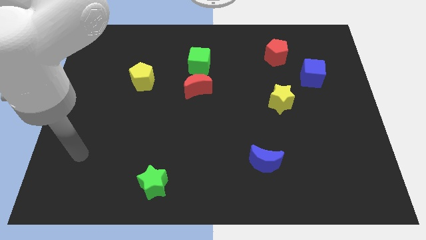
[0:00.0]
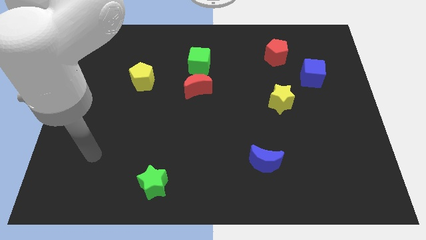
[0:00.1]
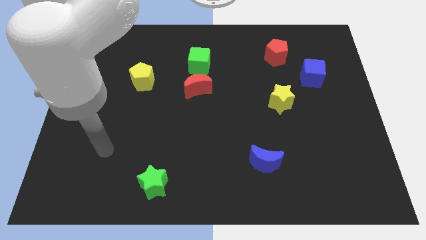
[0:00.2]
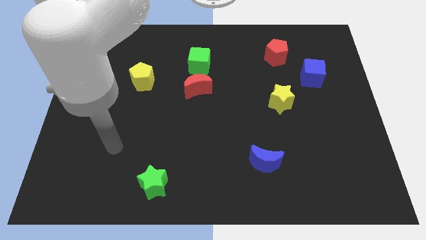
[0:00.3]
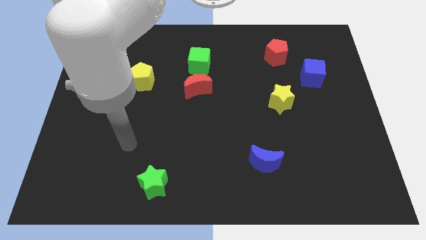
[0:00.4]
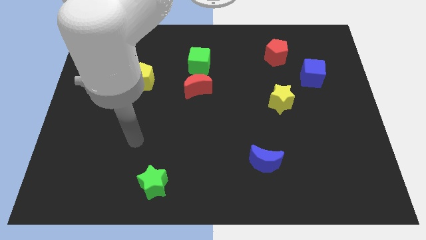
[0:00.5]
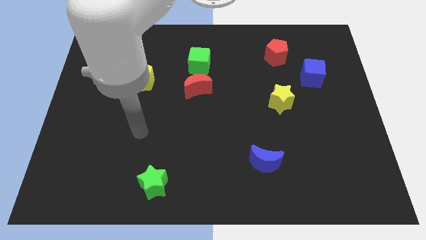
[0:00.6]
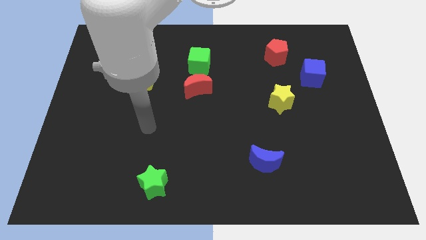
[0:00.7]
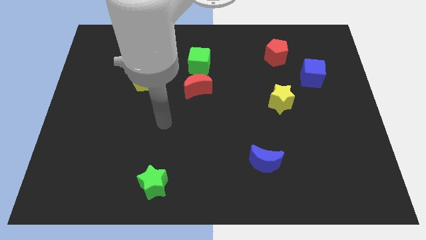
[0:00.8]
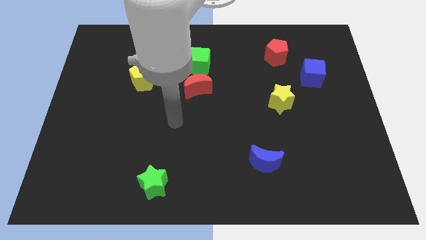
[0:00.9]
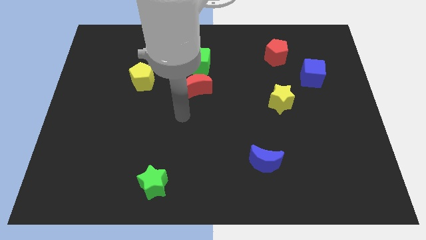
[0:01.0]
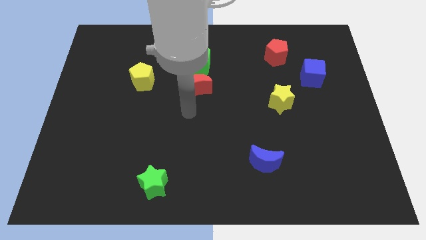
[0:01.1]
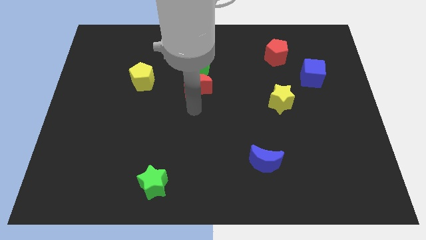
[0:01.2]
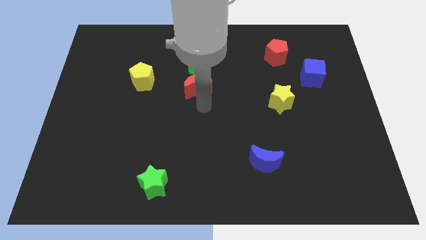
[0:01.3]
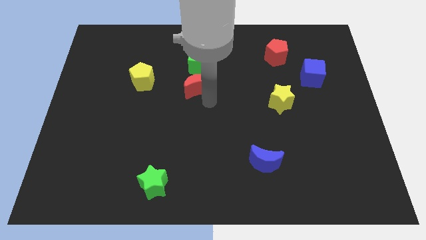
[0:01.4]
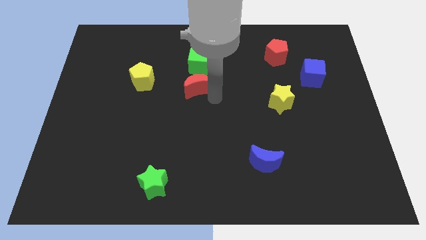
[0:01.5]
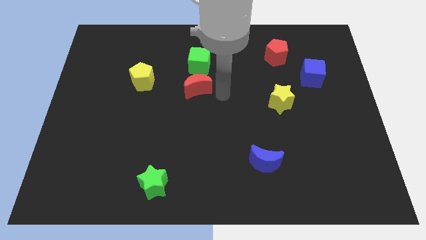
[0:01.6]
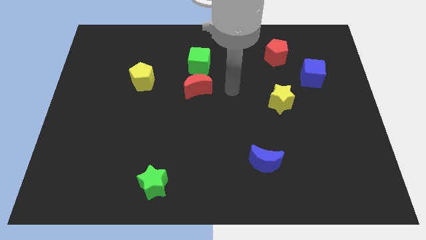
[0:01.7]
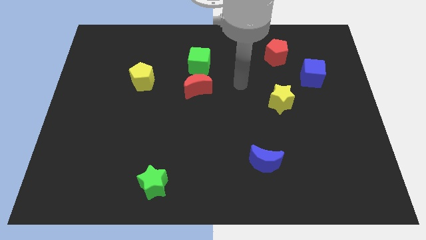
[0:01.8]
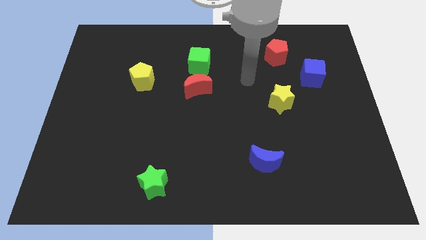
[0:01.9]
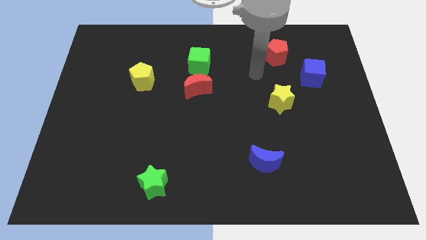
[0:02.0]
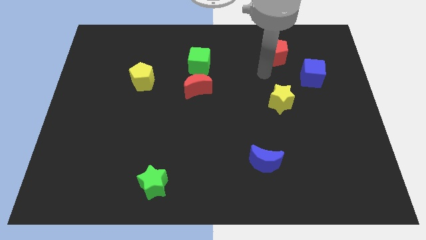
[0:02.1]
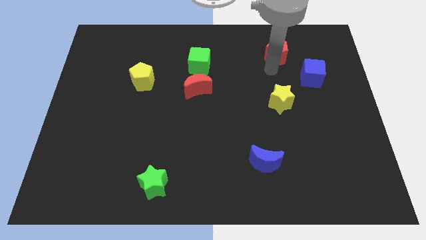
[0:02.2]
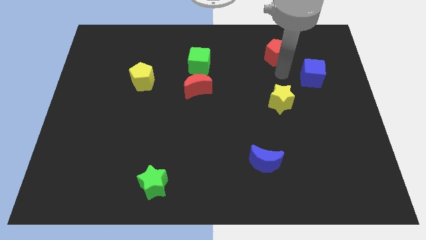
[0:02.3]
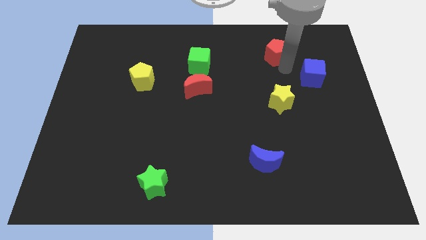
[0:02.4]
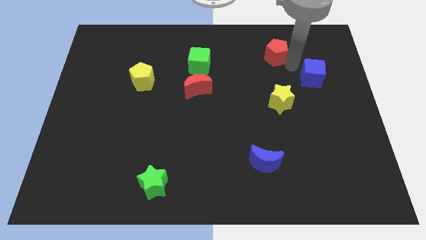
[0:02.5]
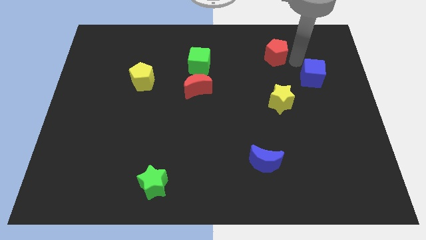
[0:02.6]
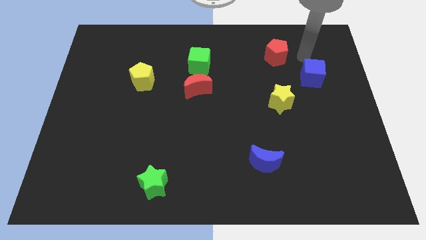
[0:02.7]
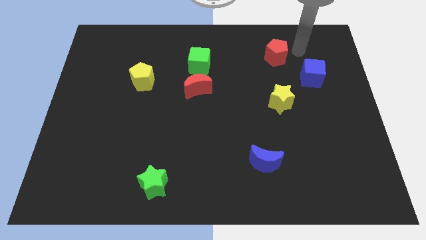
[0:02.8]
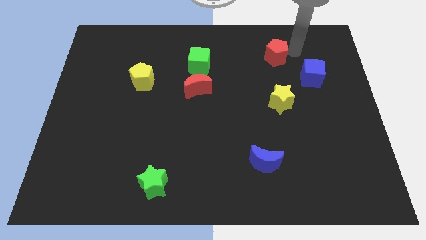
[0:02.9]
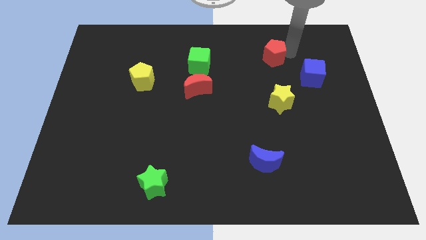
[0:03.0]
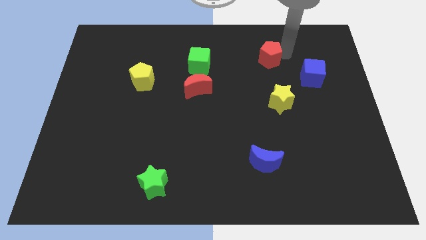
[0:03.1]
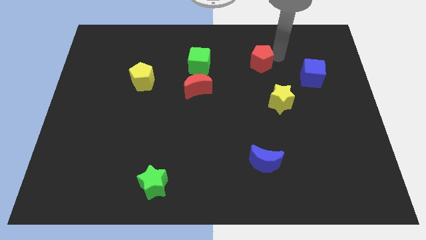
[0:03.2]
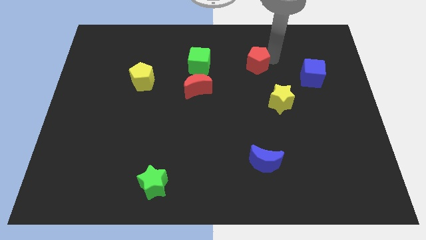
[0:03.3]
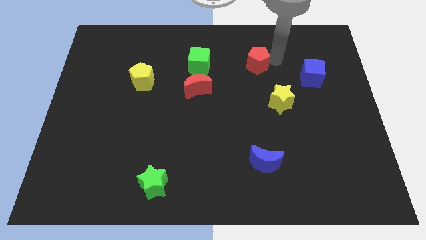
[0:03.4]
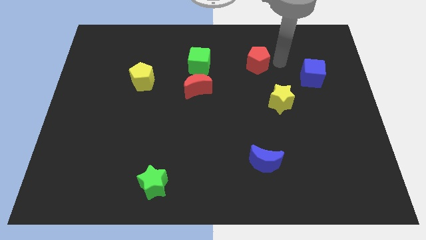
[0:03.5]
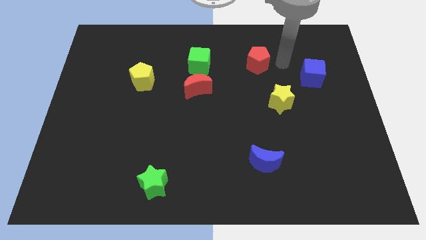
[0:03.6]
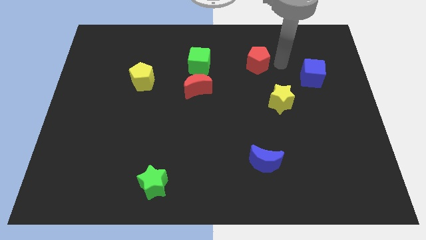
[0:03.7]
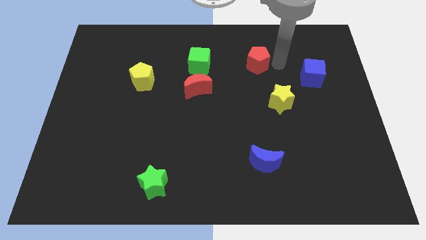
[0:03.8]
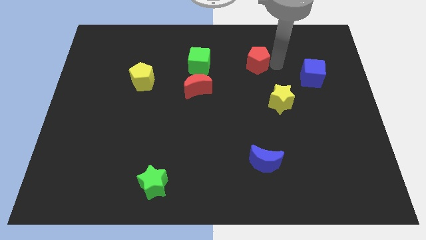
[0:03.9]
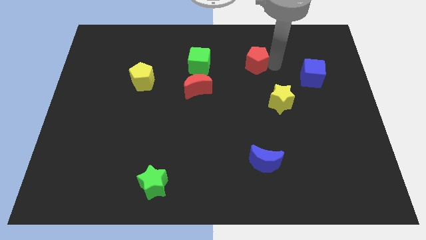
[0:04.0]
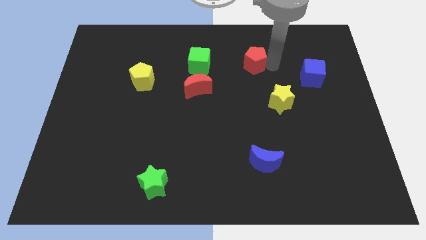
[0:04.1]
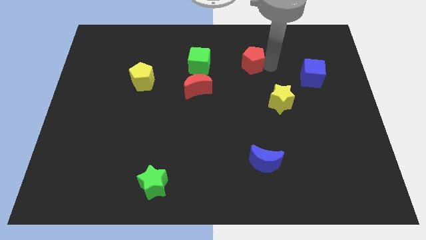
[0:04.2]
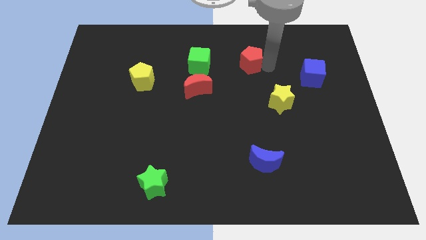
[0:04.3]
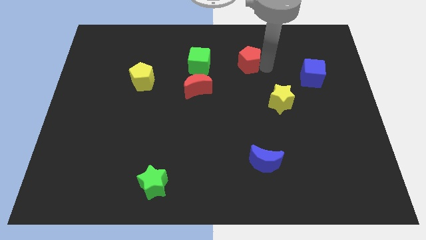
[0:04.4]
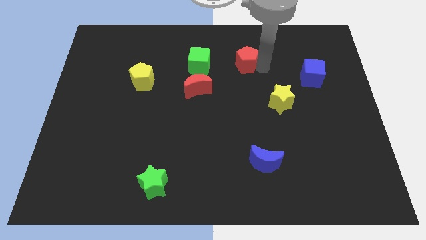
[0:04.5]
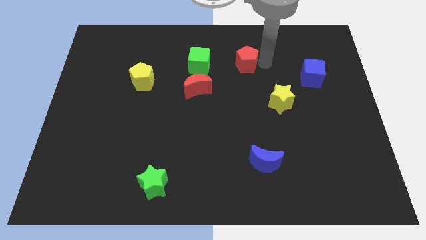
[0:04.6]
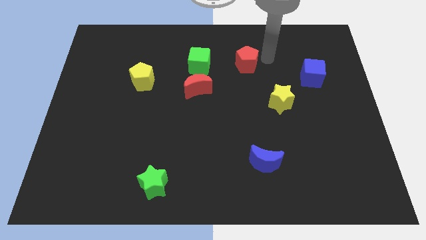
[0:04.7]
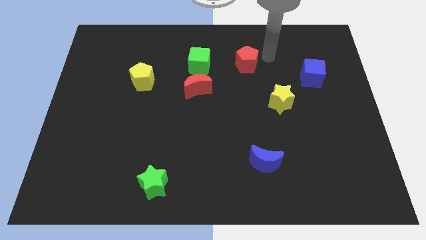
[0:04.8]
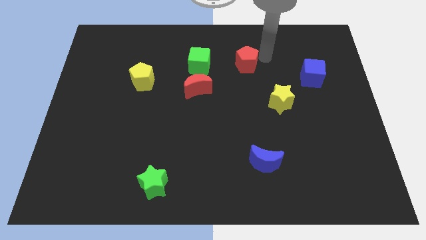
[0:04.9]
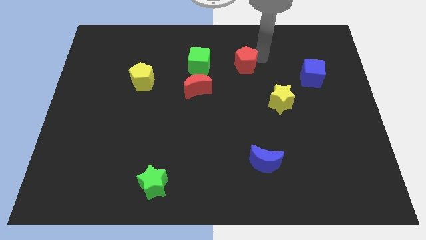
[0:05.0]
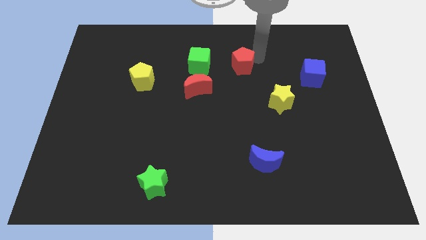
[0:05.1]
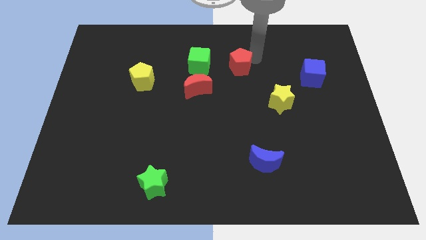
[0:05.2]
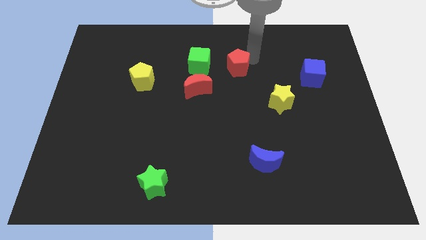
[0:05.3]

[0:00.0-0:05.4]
slide the red pentagon to the top right of the red moon

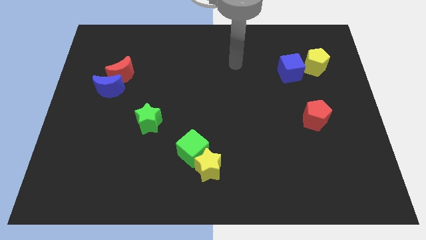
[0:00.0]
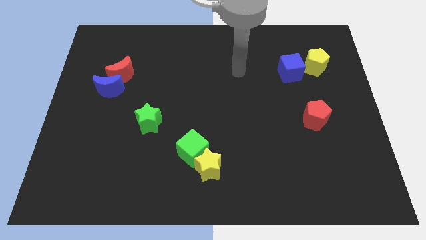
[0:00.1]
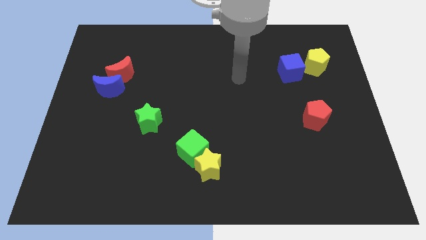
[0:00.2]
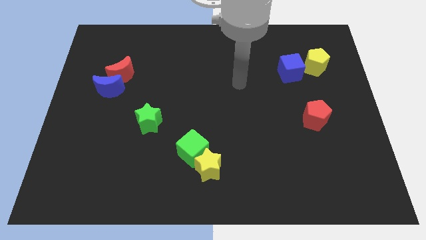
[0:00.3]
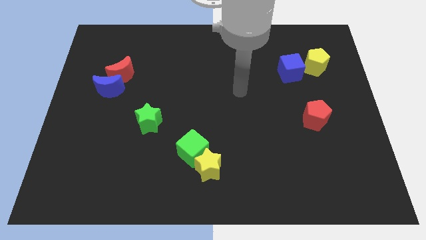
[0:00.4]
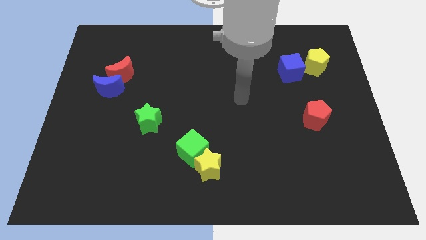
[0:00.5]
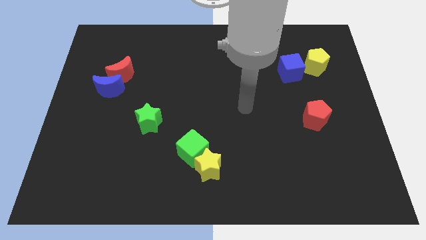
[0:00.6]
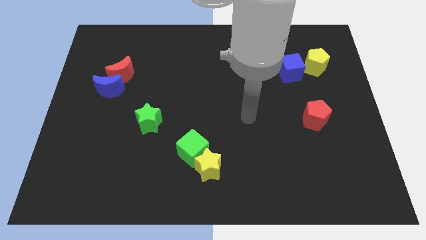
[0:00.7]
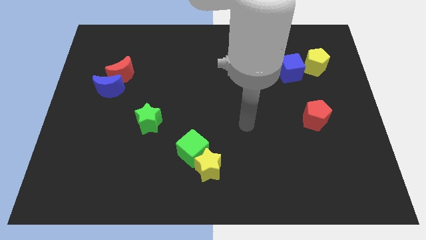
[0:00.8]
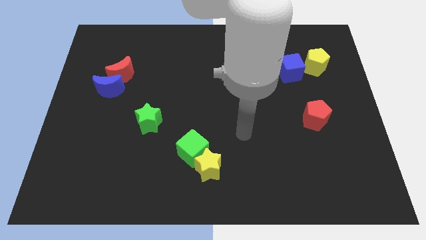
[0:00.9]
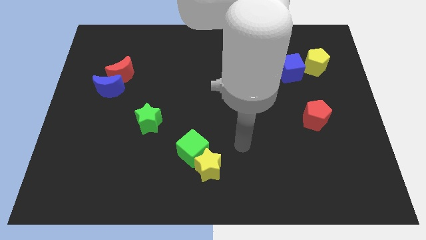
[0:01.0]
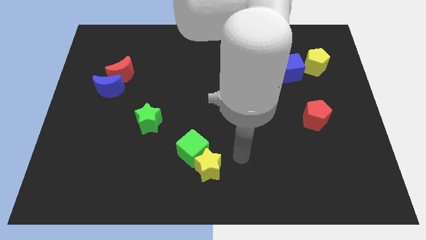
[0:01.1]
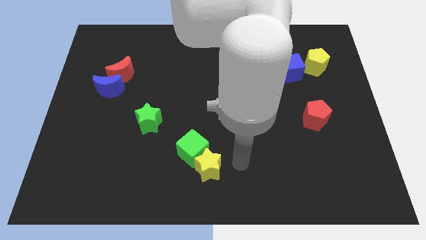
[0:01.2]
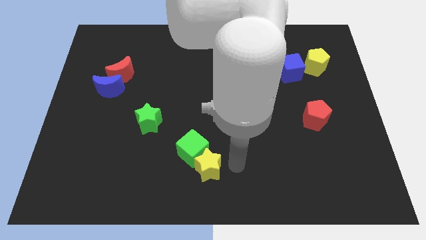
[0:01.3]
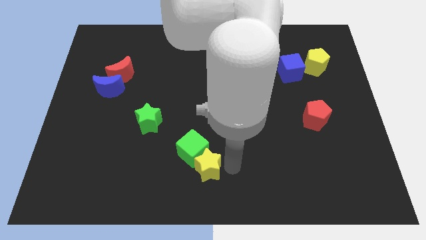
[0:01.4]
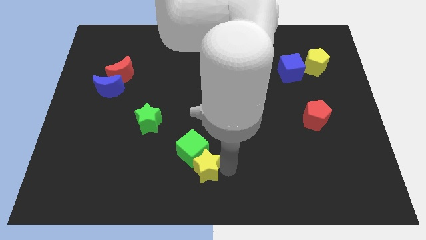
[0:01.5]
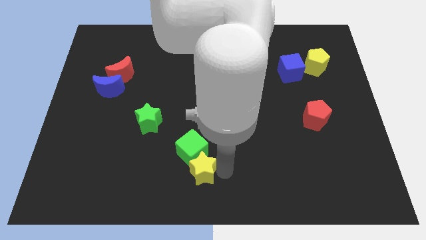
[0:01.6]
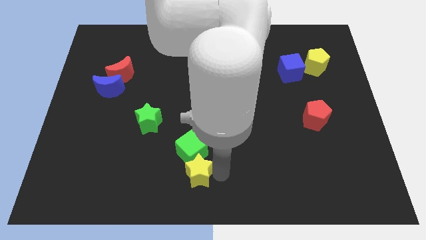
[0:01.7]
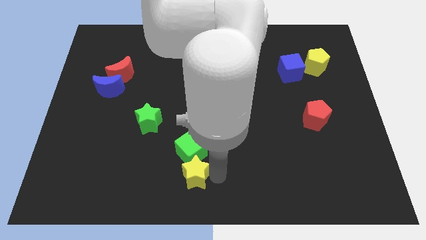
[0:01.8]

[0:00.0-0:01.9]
move the yellow star diagonally down and to the left of the green cube
